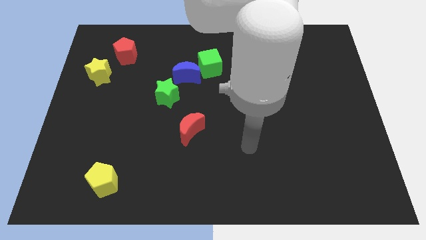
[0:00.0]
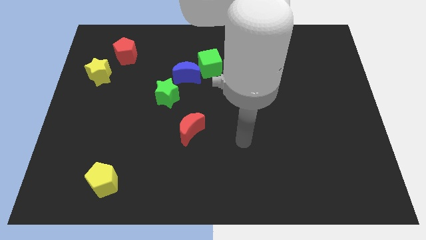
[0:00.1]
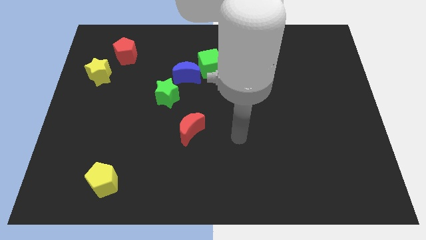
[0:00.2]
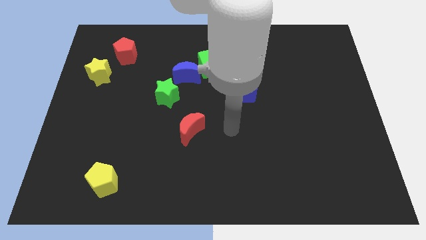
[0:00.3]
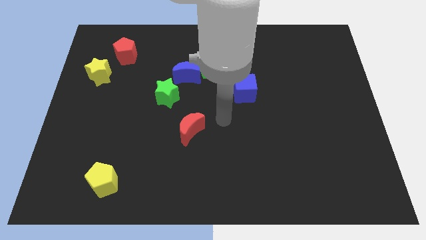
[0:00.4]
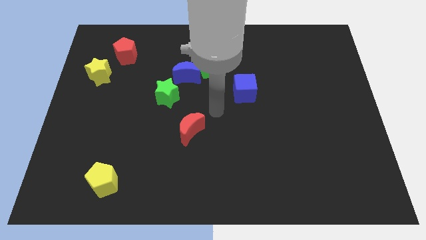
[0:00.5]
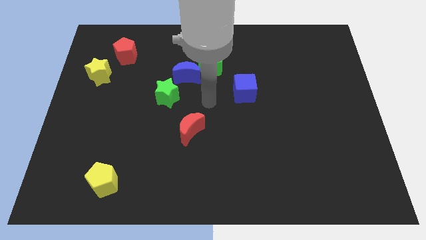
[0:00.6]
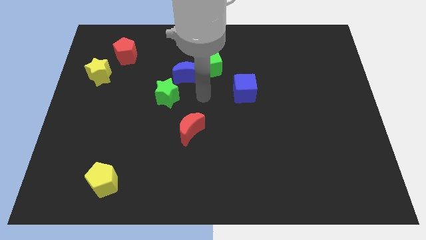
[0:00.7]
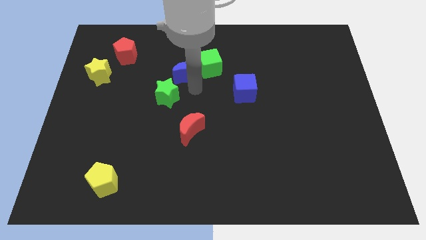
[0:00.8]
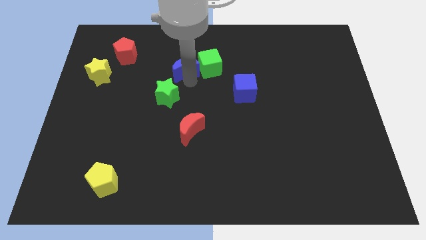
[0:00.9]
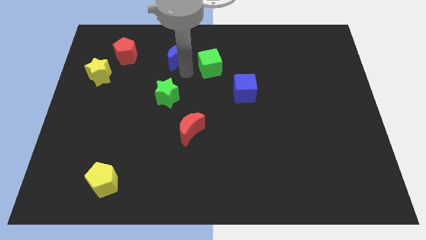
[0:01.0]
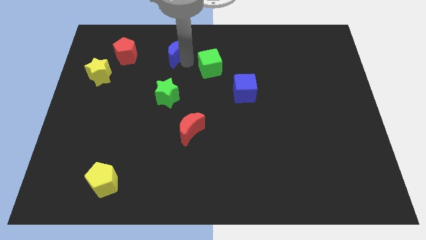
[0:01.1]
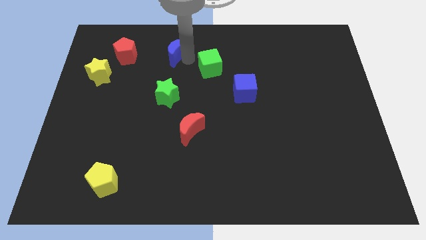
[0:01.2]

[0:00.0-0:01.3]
pull the green cube apart from the blue moon

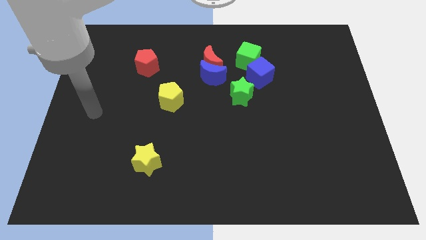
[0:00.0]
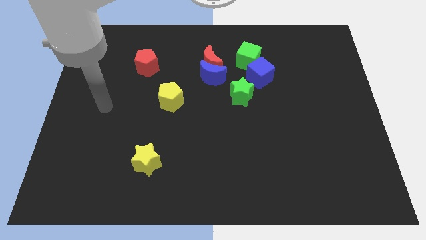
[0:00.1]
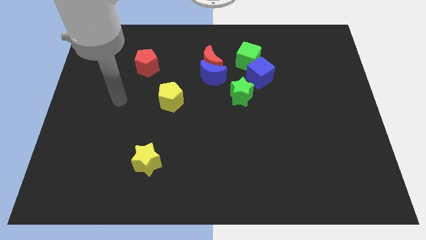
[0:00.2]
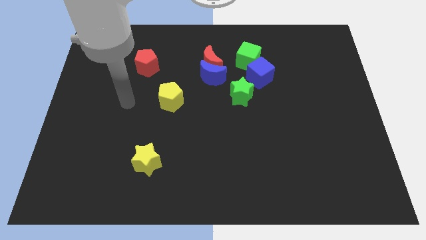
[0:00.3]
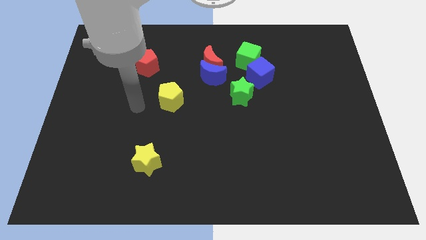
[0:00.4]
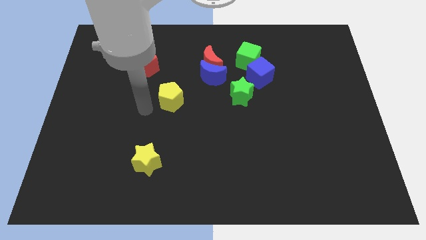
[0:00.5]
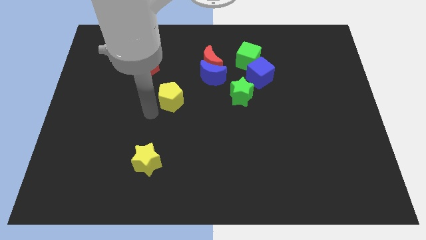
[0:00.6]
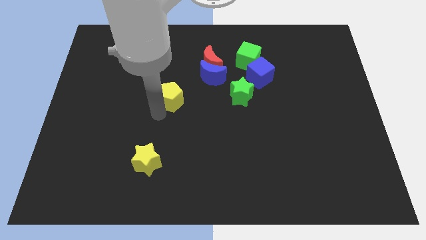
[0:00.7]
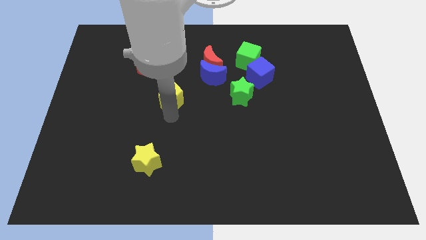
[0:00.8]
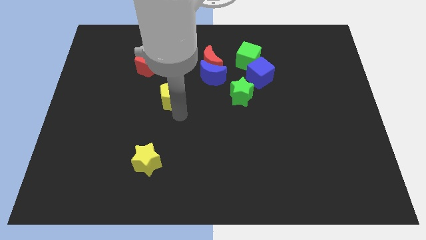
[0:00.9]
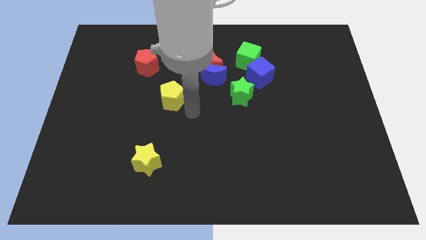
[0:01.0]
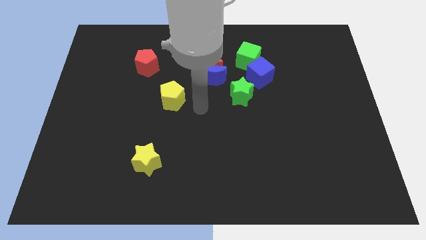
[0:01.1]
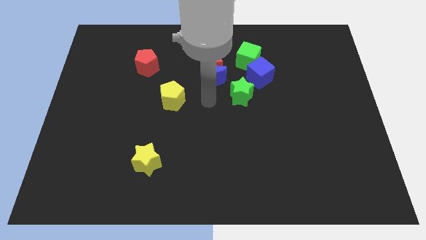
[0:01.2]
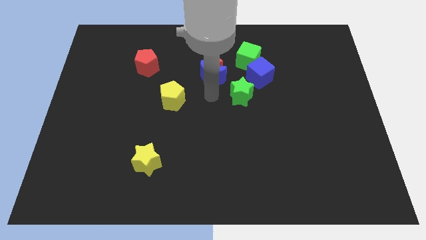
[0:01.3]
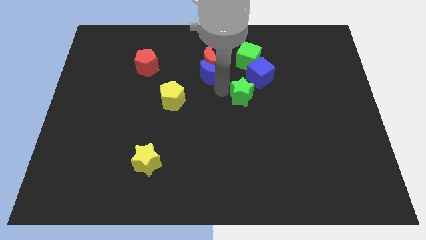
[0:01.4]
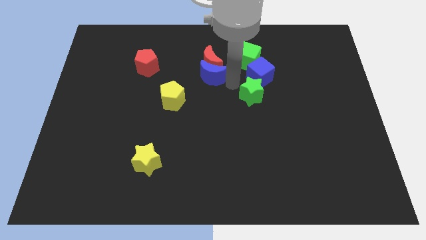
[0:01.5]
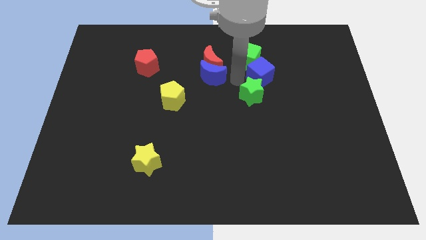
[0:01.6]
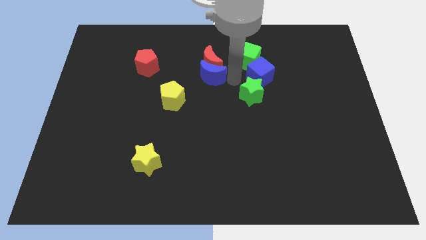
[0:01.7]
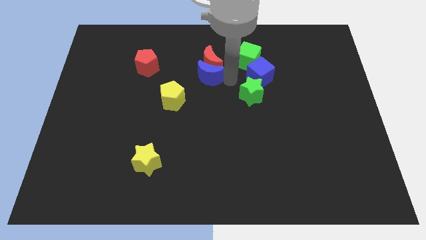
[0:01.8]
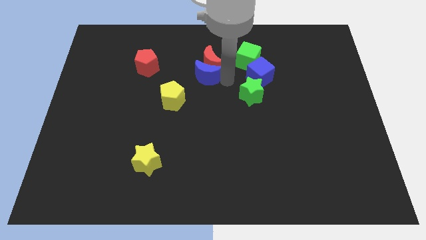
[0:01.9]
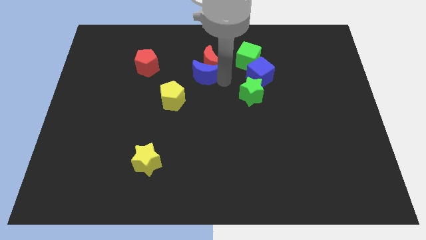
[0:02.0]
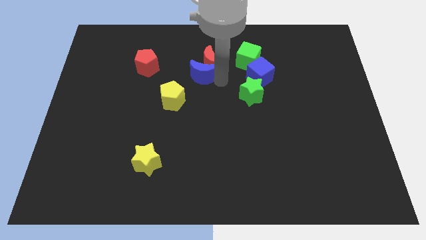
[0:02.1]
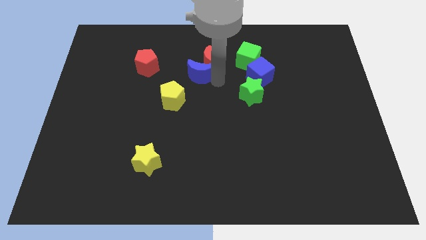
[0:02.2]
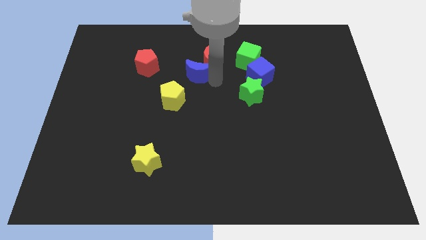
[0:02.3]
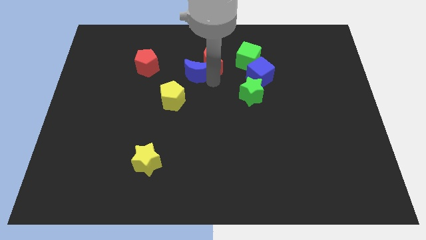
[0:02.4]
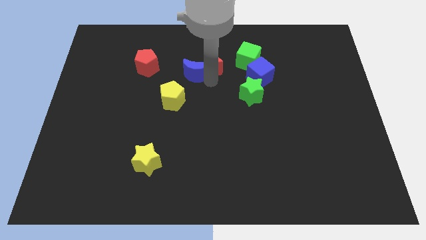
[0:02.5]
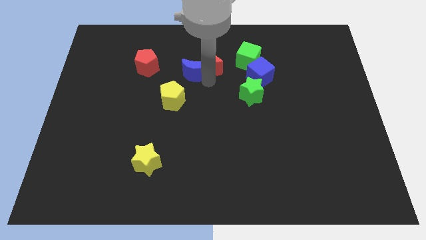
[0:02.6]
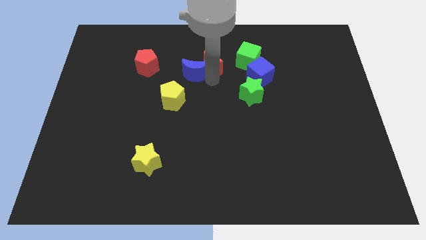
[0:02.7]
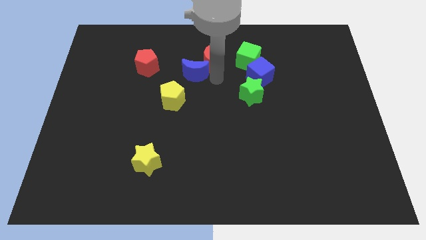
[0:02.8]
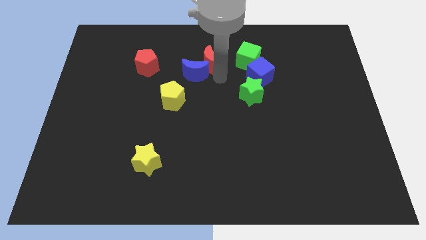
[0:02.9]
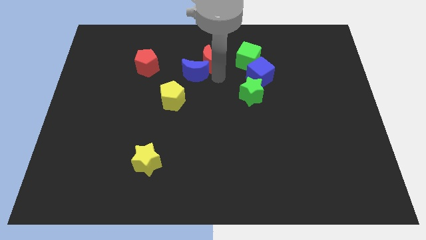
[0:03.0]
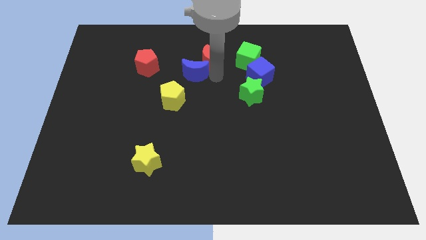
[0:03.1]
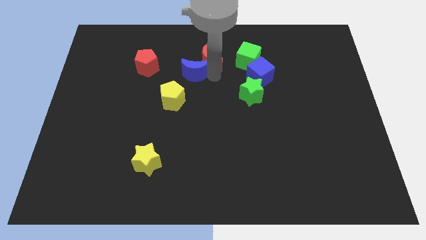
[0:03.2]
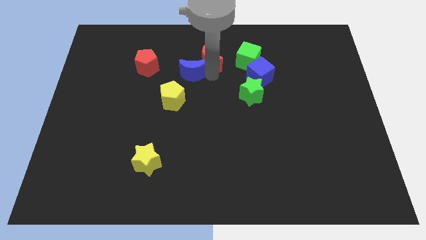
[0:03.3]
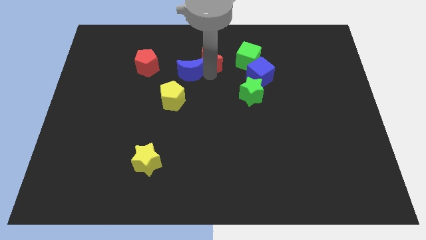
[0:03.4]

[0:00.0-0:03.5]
move the blue moon away from the red moon and green star

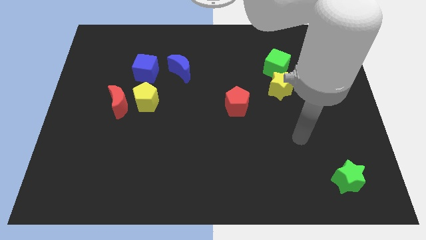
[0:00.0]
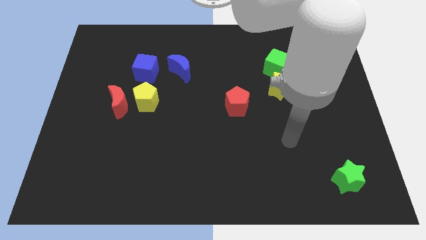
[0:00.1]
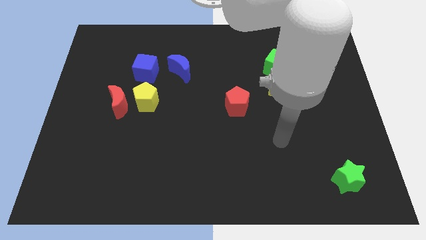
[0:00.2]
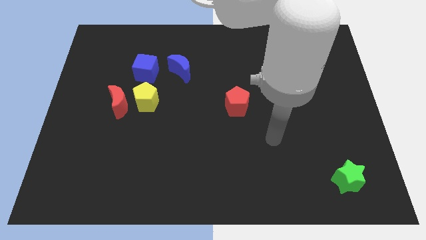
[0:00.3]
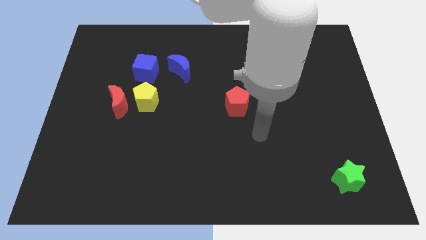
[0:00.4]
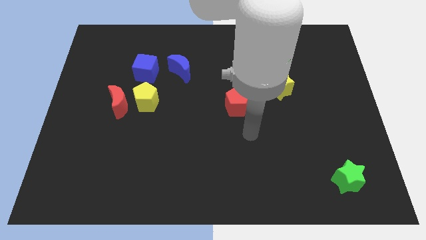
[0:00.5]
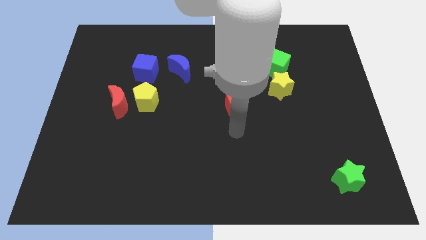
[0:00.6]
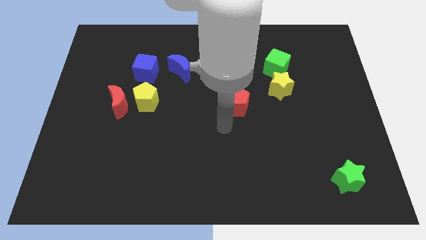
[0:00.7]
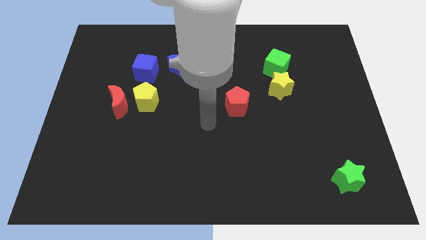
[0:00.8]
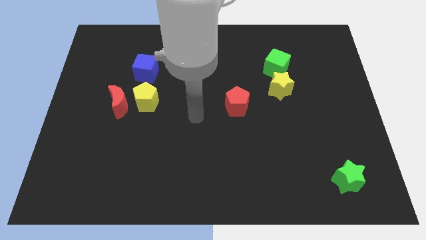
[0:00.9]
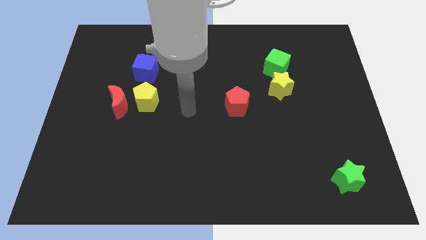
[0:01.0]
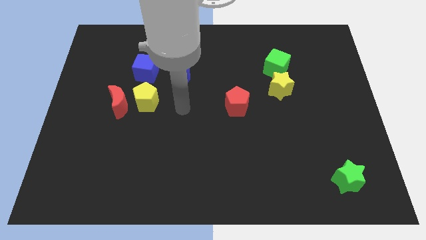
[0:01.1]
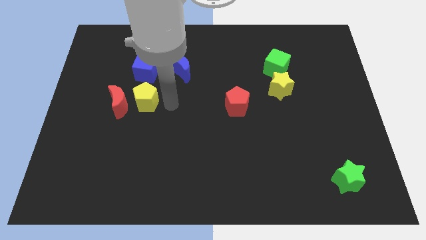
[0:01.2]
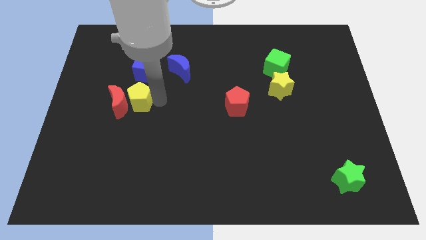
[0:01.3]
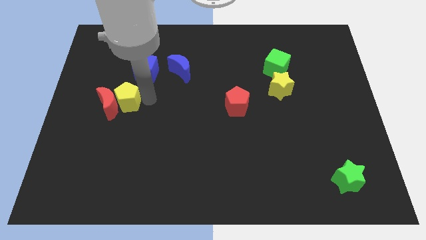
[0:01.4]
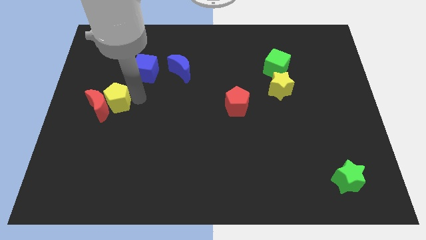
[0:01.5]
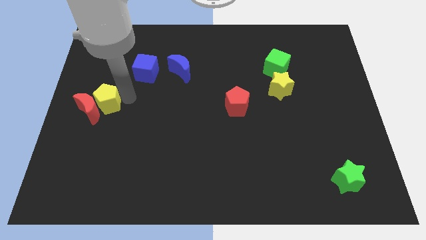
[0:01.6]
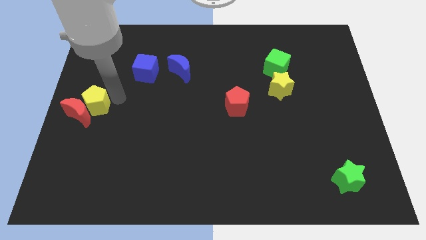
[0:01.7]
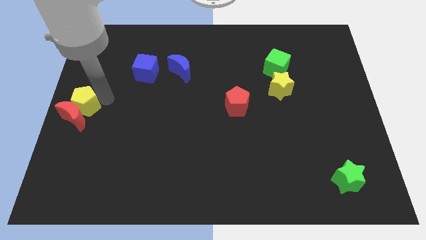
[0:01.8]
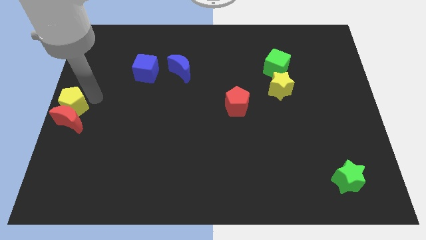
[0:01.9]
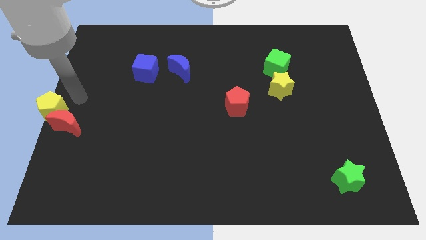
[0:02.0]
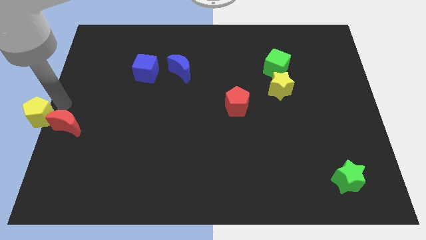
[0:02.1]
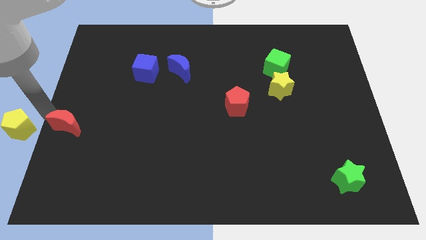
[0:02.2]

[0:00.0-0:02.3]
move the red moon away from the yellow pentagon

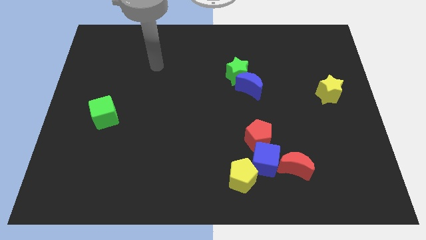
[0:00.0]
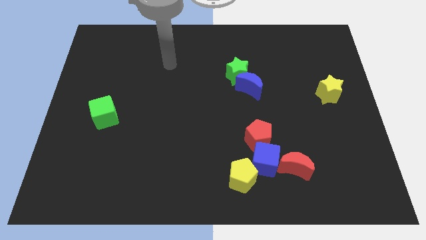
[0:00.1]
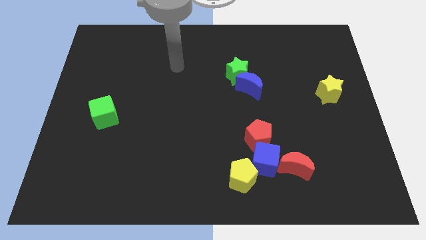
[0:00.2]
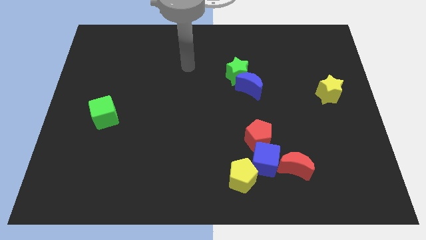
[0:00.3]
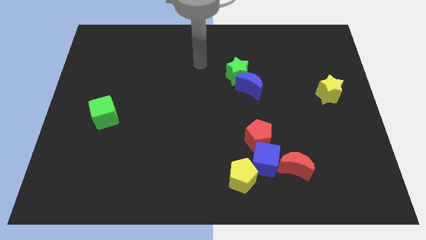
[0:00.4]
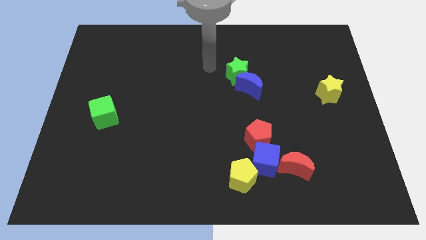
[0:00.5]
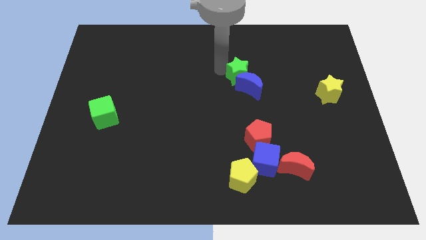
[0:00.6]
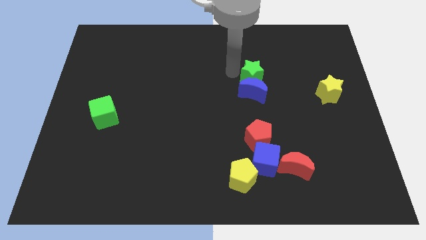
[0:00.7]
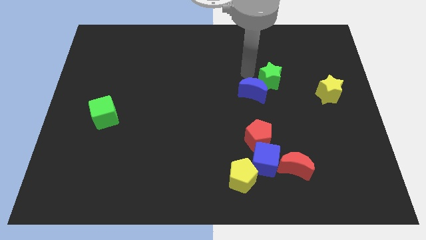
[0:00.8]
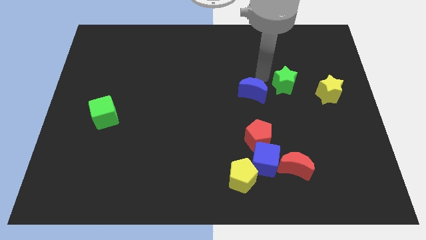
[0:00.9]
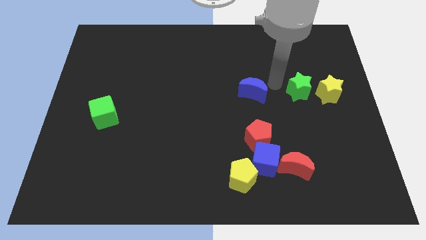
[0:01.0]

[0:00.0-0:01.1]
pull the blue moon apart from the green star

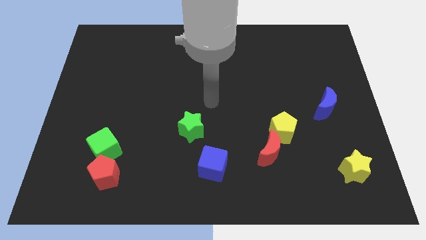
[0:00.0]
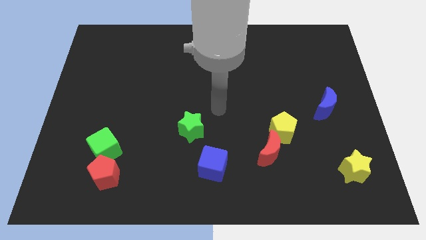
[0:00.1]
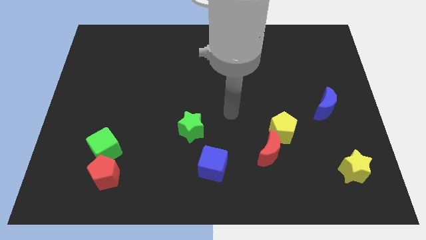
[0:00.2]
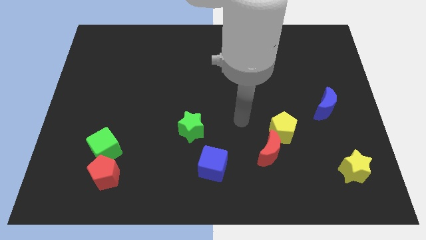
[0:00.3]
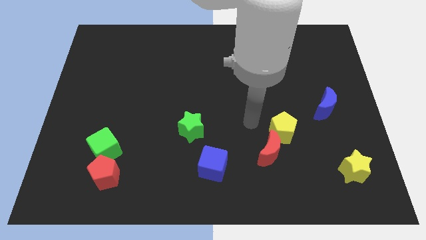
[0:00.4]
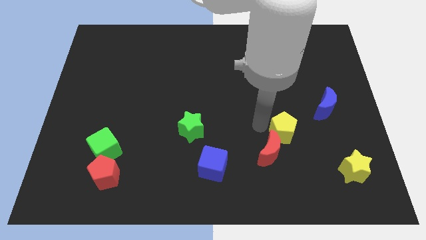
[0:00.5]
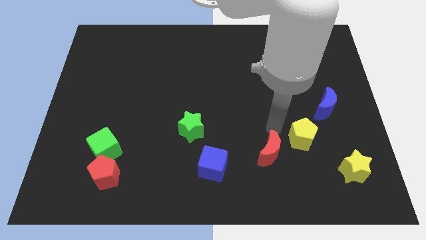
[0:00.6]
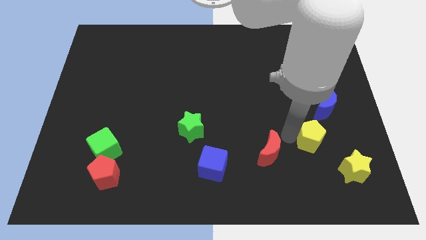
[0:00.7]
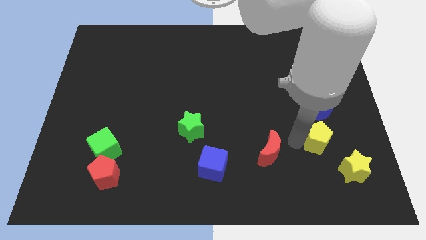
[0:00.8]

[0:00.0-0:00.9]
separate the red moon from the yellow pentagon

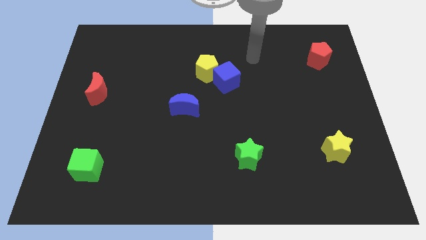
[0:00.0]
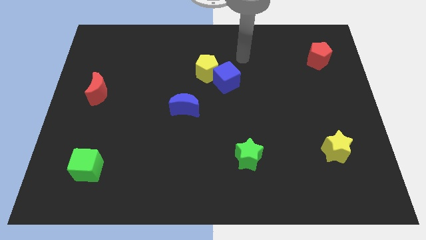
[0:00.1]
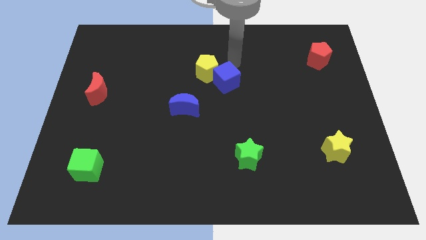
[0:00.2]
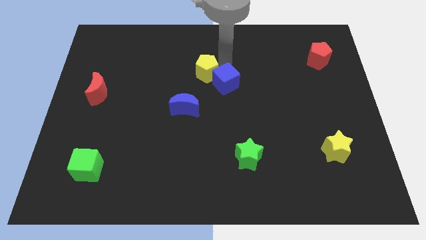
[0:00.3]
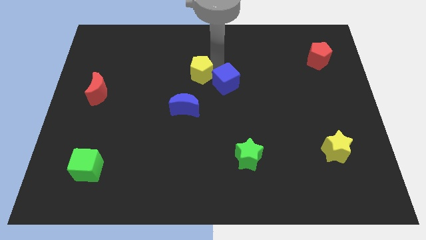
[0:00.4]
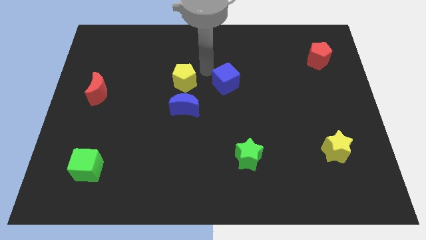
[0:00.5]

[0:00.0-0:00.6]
pull the blue cube apart from the yellow pentagon
